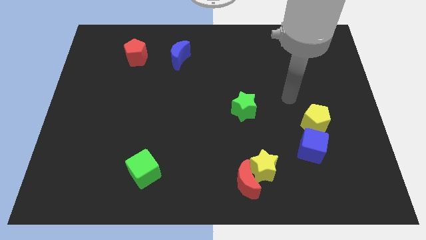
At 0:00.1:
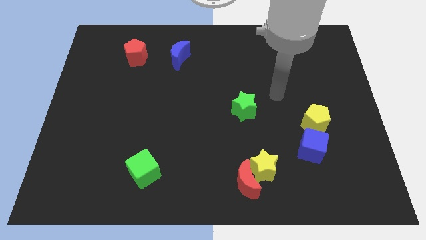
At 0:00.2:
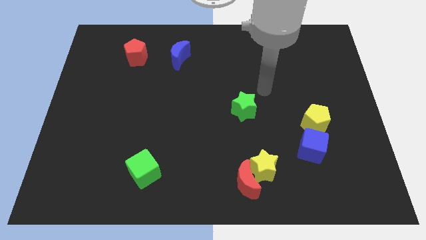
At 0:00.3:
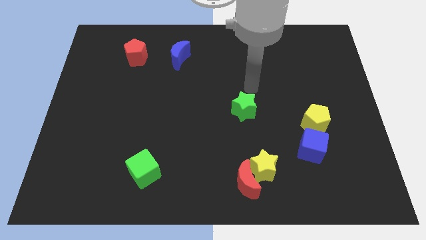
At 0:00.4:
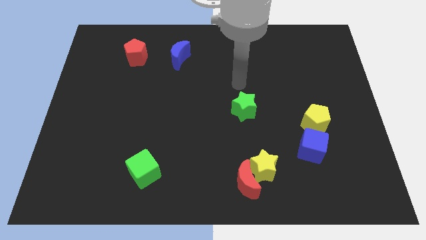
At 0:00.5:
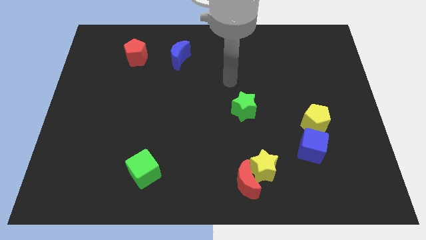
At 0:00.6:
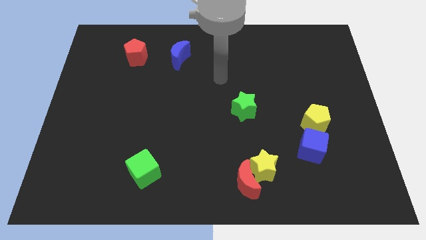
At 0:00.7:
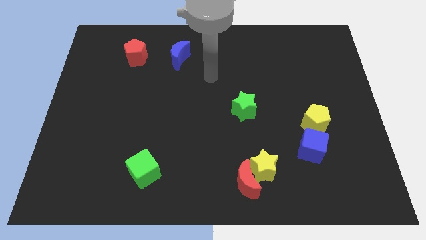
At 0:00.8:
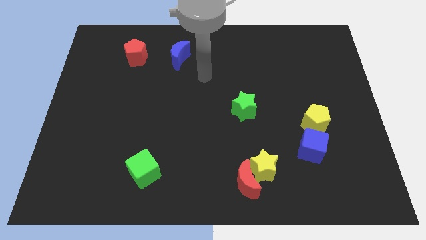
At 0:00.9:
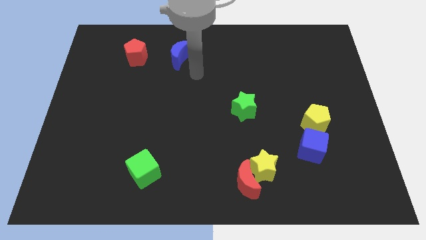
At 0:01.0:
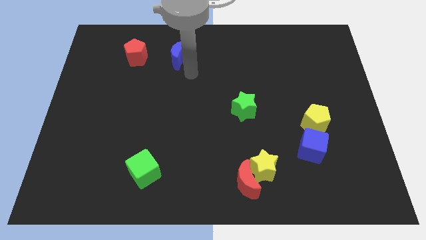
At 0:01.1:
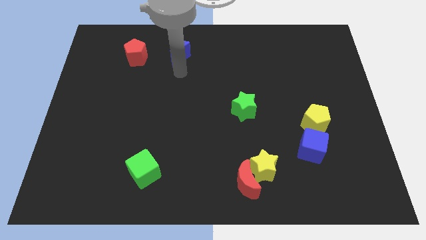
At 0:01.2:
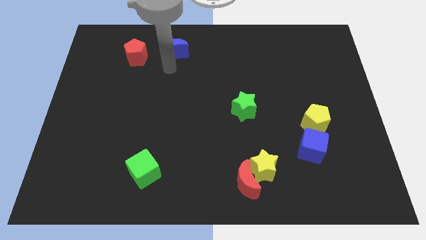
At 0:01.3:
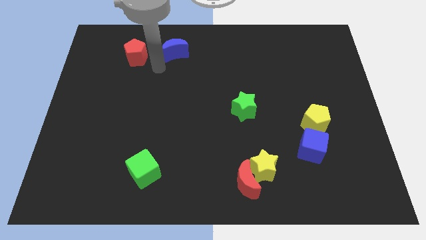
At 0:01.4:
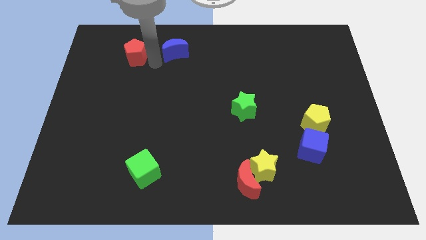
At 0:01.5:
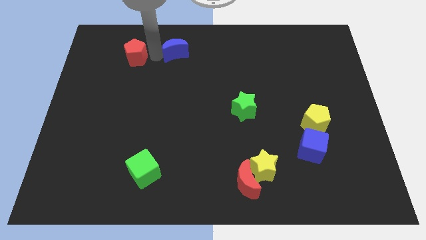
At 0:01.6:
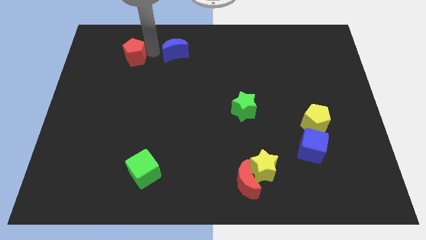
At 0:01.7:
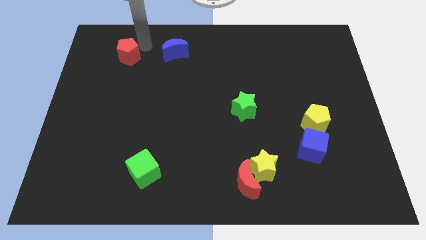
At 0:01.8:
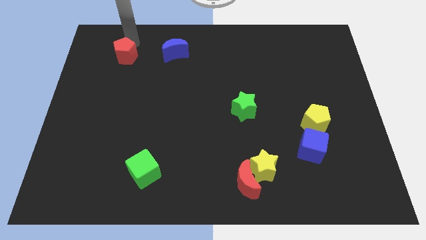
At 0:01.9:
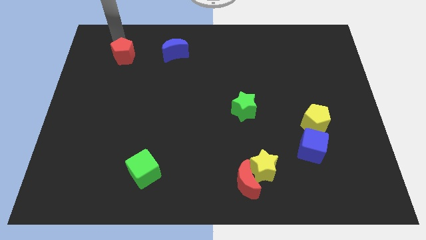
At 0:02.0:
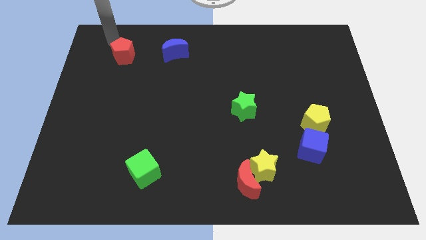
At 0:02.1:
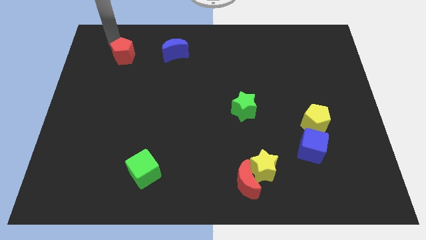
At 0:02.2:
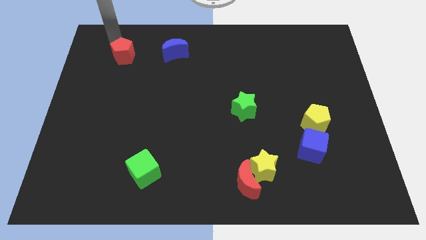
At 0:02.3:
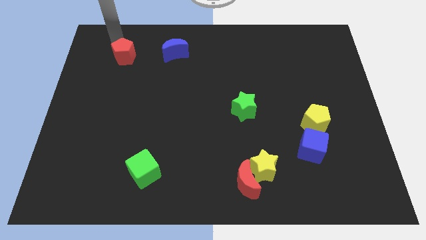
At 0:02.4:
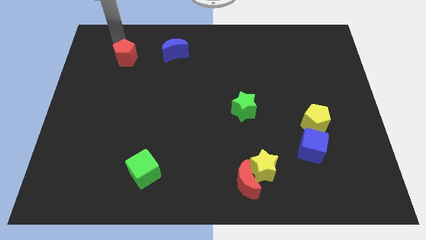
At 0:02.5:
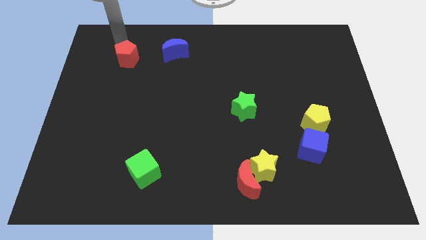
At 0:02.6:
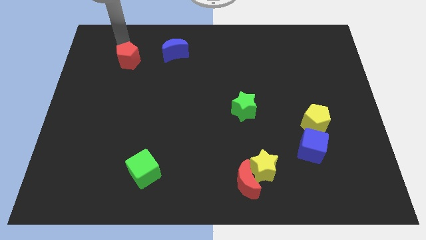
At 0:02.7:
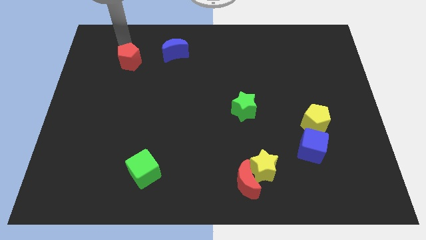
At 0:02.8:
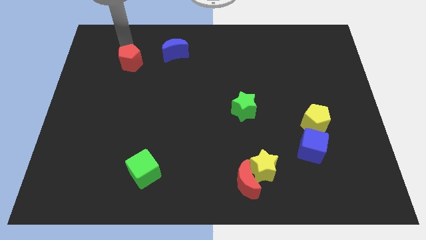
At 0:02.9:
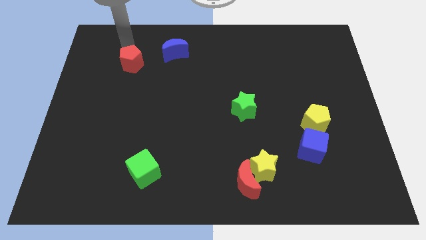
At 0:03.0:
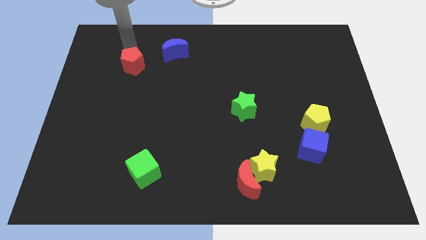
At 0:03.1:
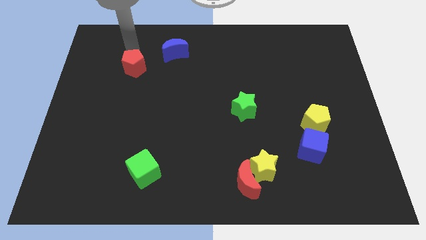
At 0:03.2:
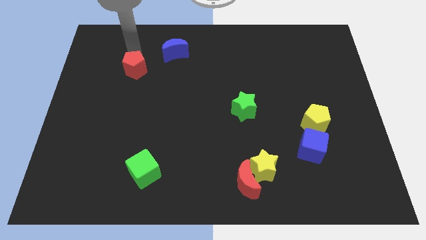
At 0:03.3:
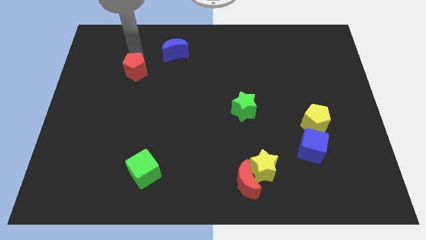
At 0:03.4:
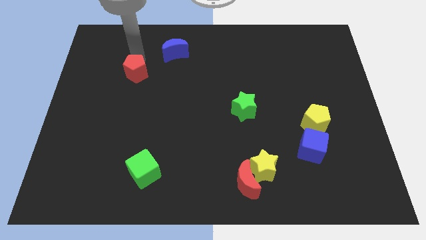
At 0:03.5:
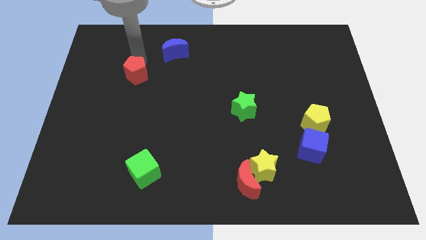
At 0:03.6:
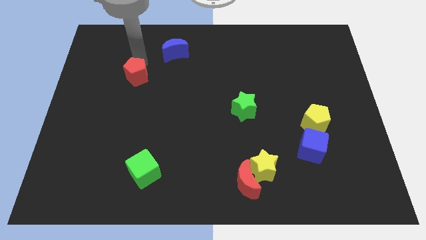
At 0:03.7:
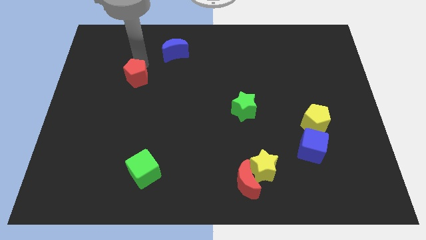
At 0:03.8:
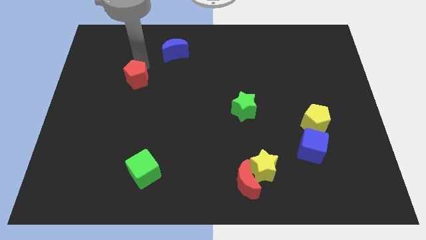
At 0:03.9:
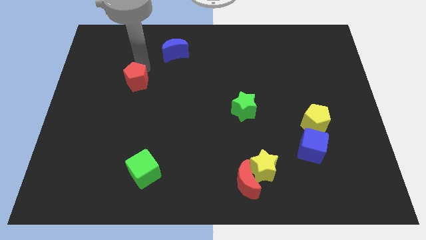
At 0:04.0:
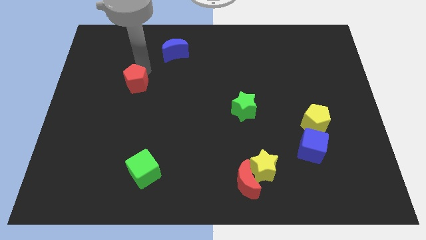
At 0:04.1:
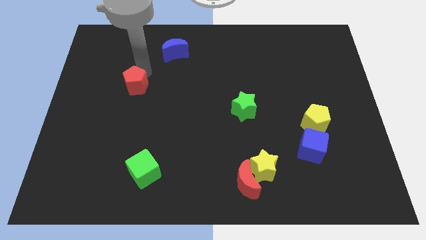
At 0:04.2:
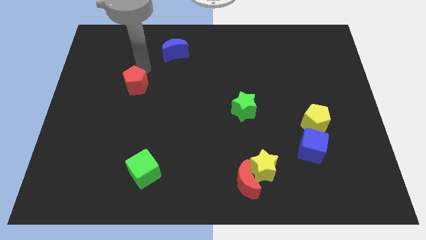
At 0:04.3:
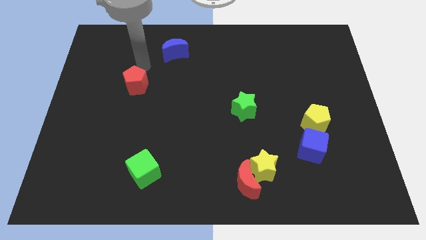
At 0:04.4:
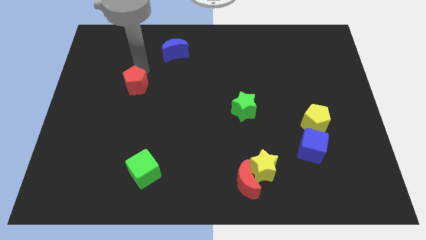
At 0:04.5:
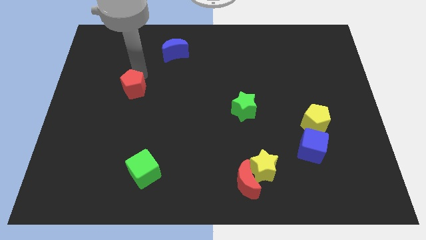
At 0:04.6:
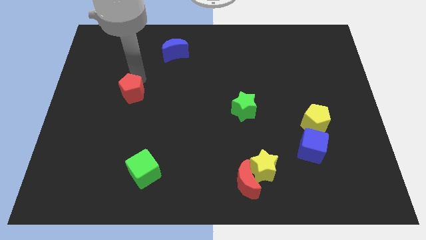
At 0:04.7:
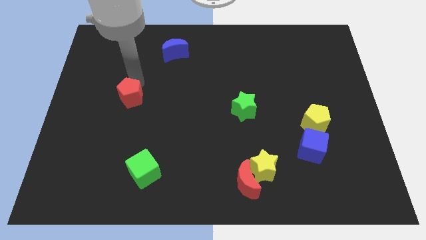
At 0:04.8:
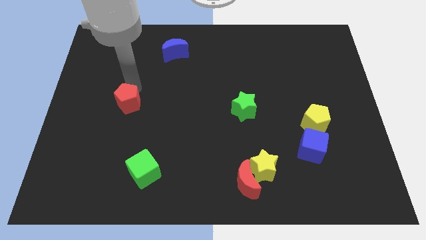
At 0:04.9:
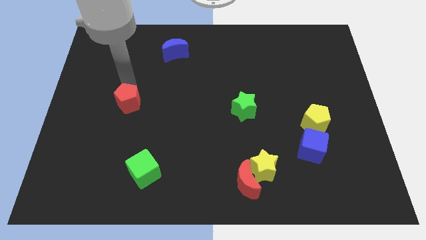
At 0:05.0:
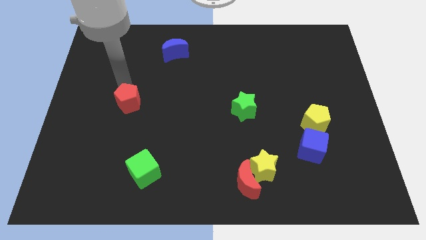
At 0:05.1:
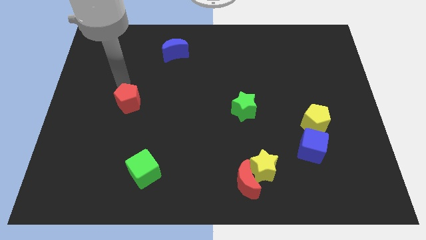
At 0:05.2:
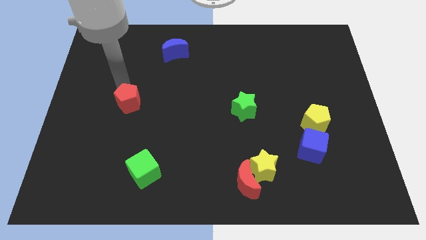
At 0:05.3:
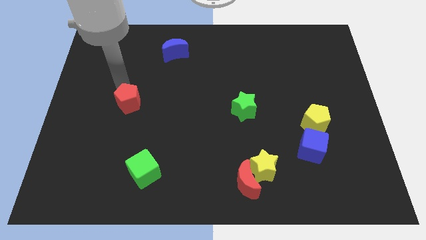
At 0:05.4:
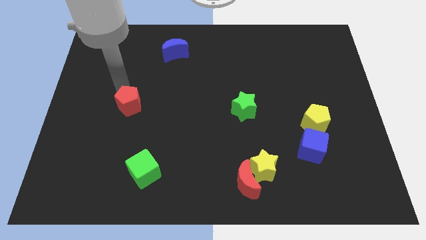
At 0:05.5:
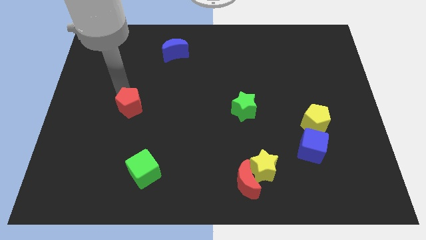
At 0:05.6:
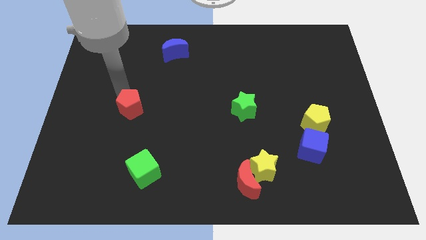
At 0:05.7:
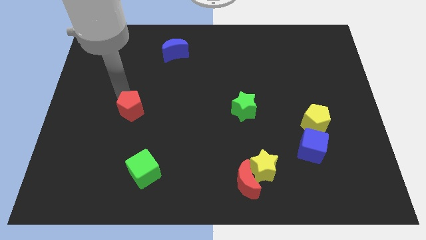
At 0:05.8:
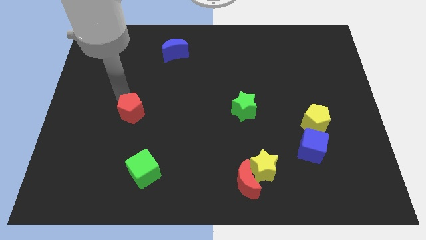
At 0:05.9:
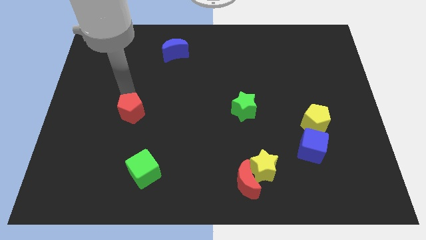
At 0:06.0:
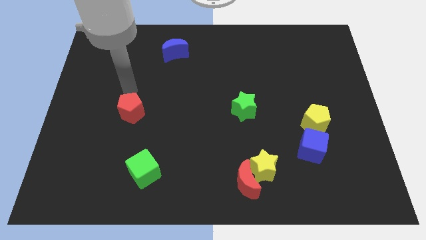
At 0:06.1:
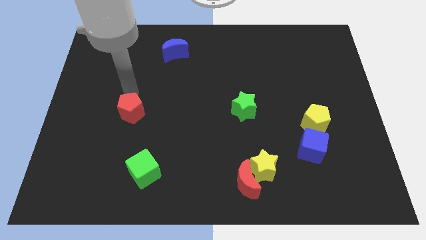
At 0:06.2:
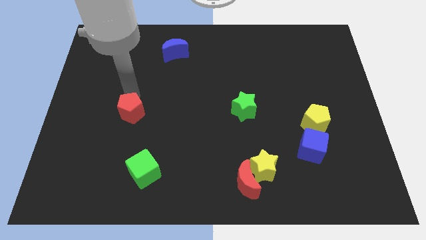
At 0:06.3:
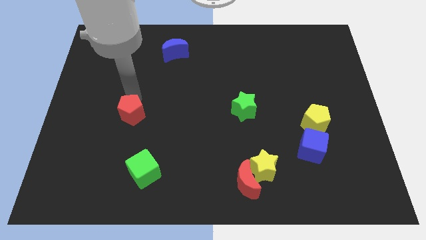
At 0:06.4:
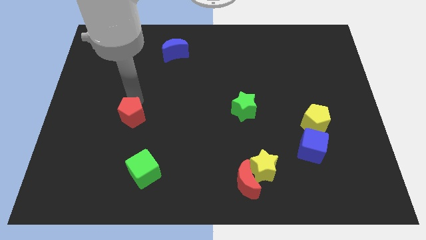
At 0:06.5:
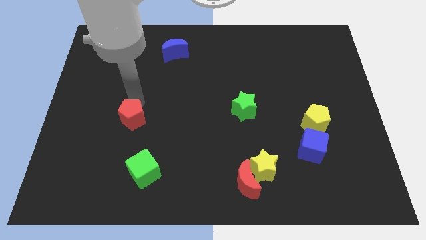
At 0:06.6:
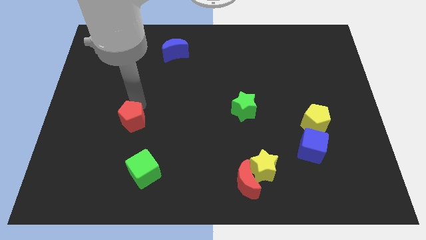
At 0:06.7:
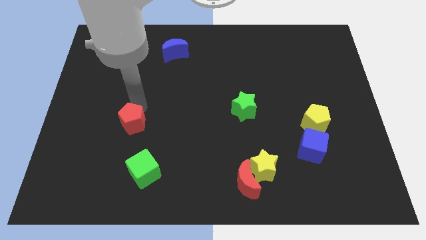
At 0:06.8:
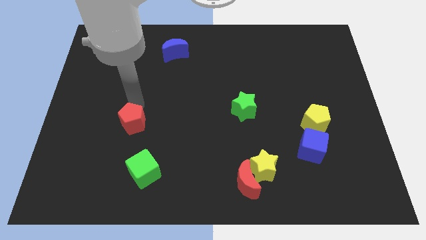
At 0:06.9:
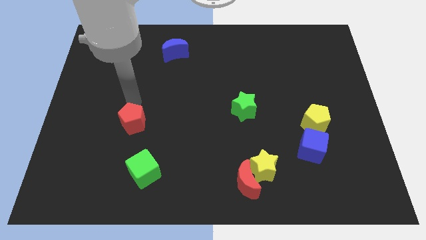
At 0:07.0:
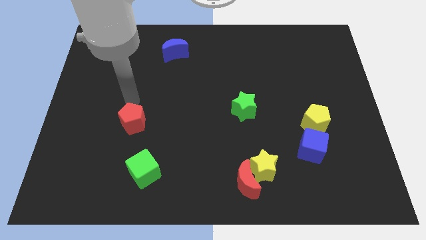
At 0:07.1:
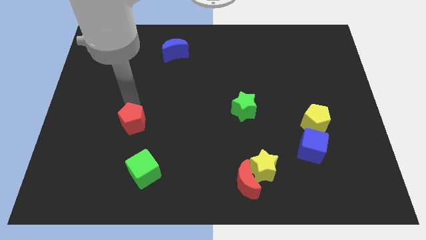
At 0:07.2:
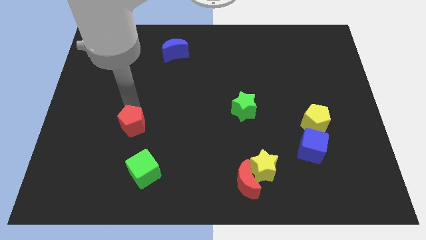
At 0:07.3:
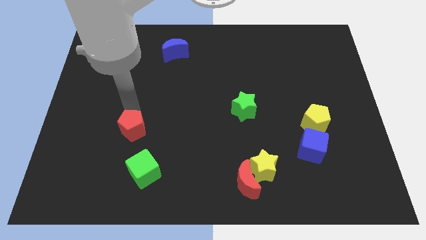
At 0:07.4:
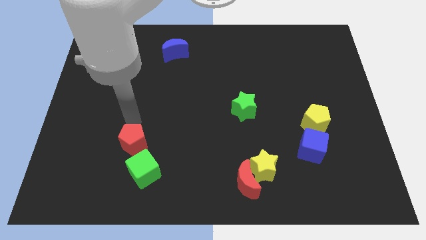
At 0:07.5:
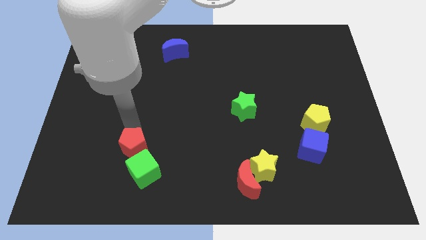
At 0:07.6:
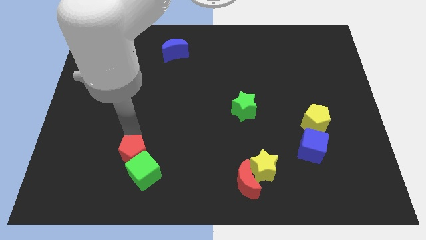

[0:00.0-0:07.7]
push the red pentagon to the green cube
